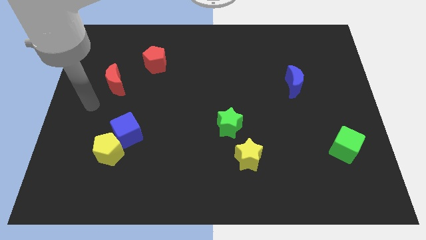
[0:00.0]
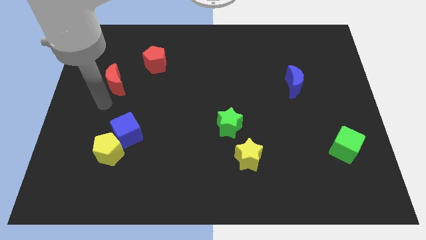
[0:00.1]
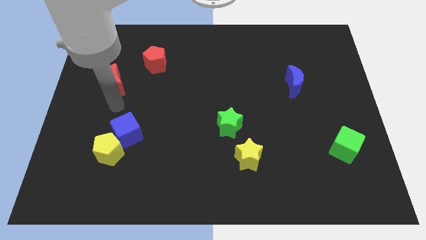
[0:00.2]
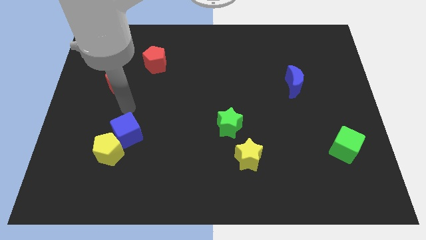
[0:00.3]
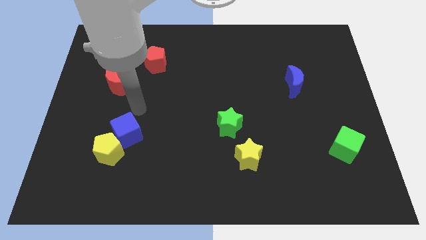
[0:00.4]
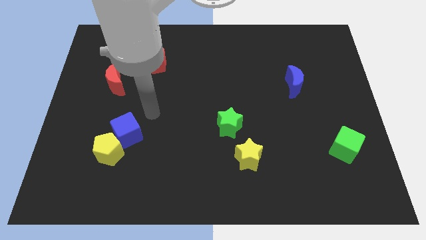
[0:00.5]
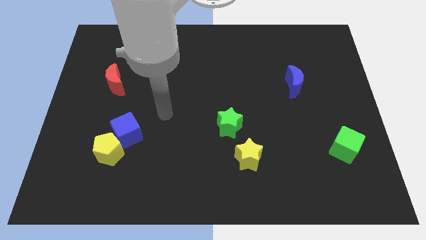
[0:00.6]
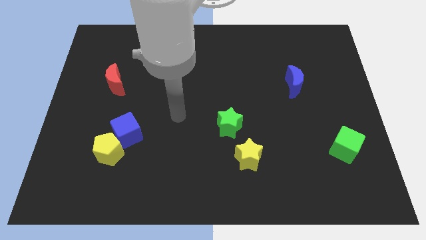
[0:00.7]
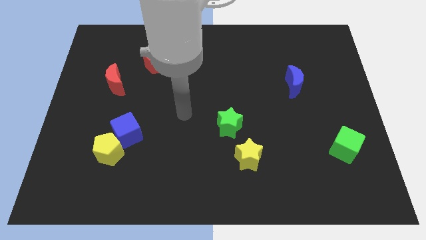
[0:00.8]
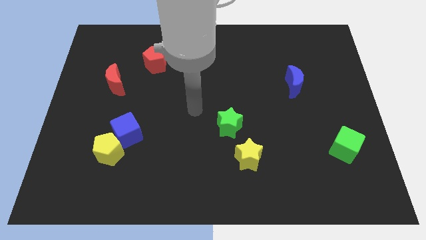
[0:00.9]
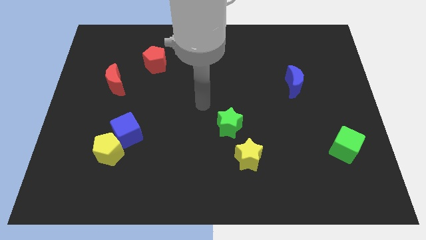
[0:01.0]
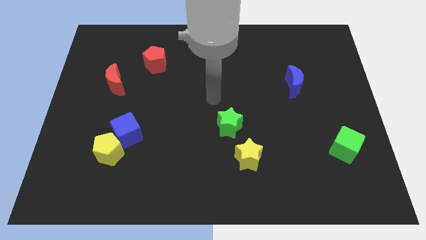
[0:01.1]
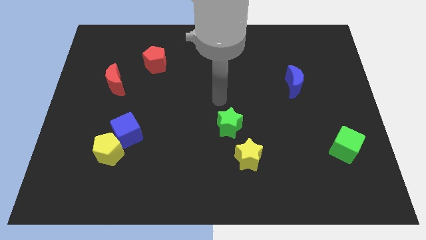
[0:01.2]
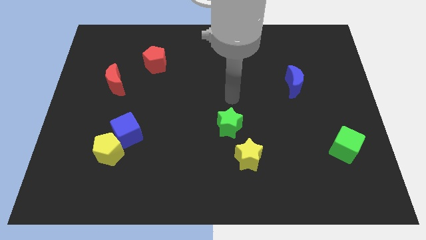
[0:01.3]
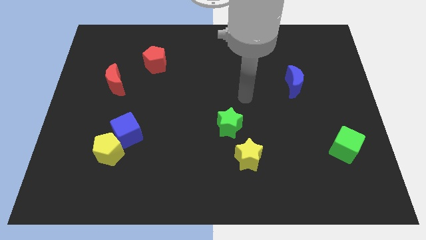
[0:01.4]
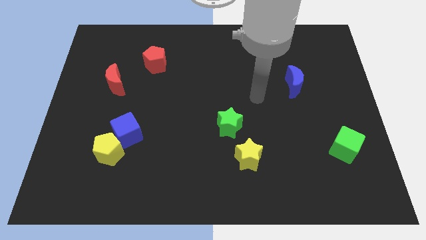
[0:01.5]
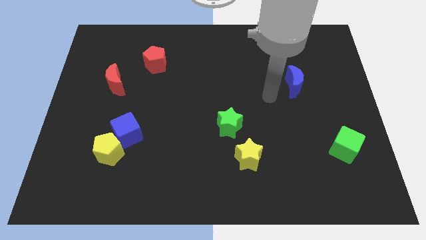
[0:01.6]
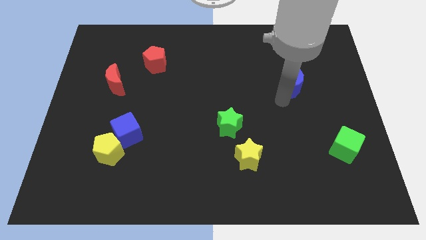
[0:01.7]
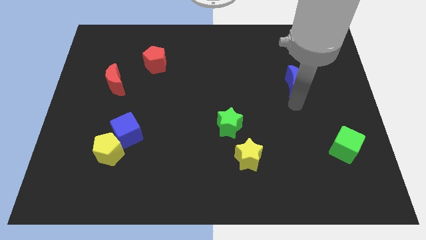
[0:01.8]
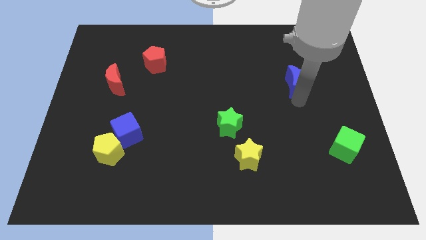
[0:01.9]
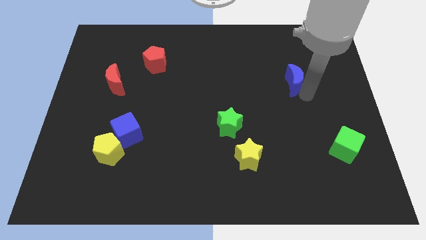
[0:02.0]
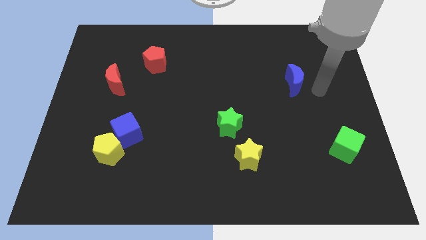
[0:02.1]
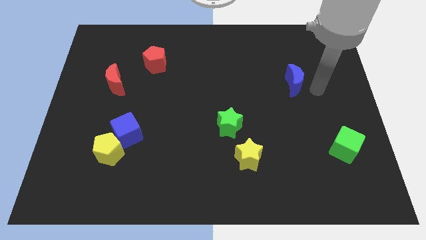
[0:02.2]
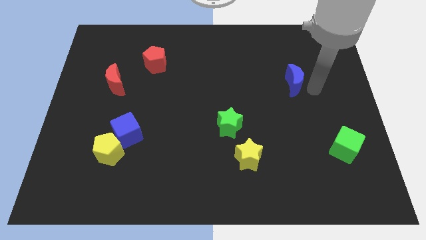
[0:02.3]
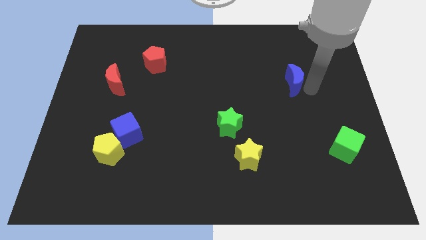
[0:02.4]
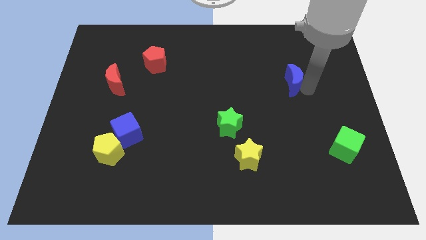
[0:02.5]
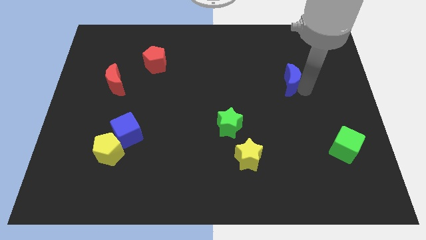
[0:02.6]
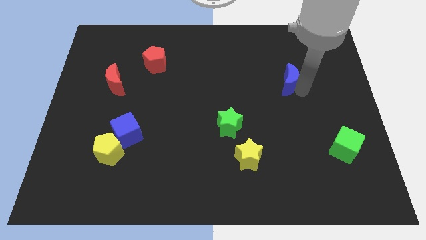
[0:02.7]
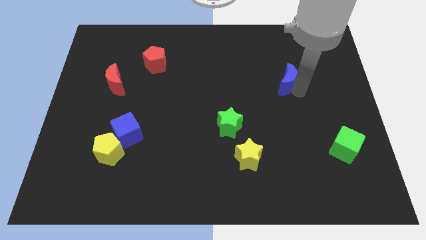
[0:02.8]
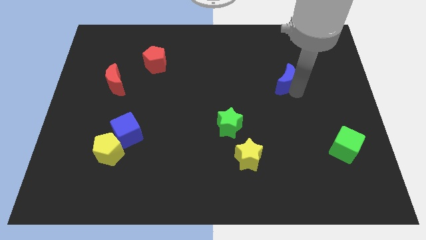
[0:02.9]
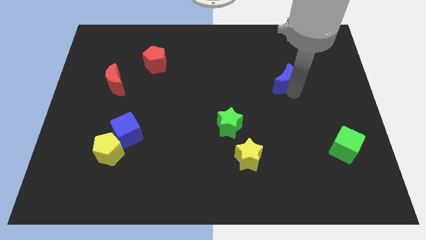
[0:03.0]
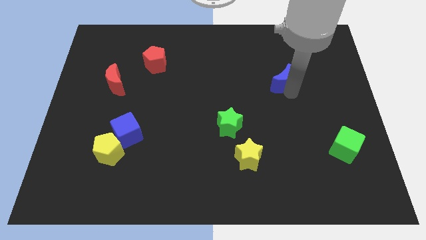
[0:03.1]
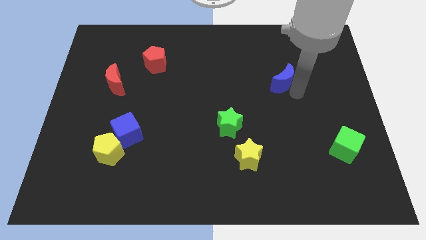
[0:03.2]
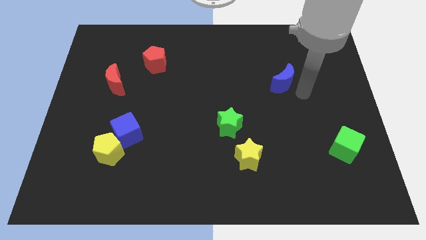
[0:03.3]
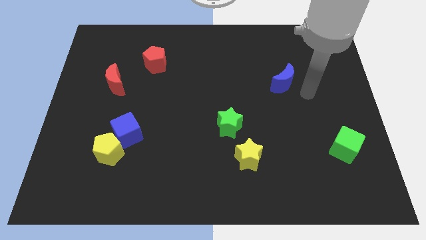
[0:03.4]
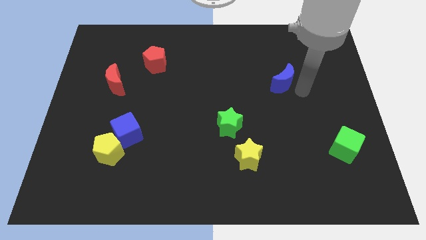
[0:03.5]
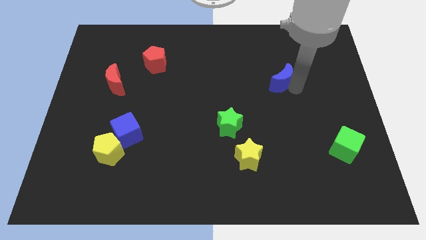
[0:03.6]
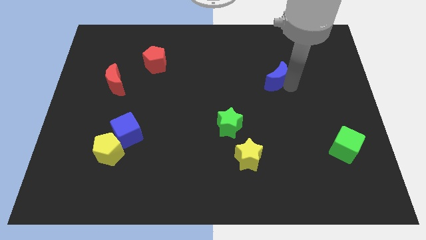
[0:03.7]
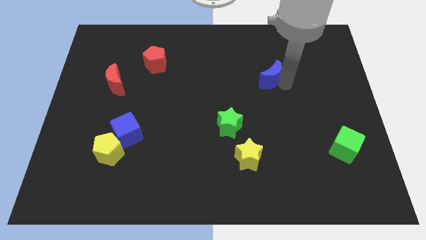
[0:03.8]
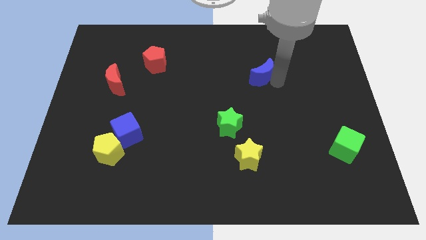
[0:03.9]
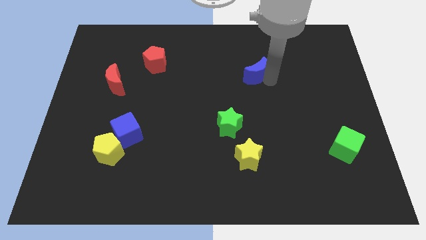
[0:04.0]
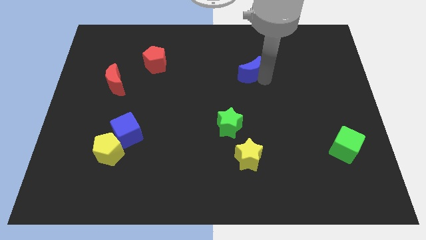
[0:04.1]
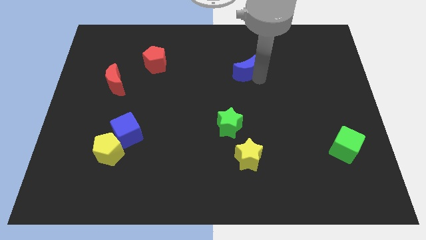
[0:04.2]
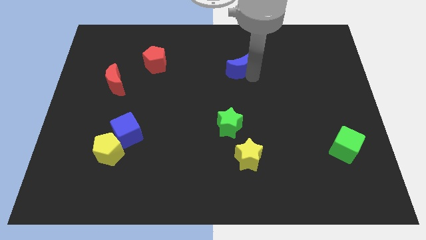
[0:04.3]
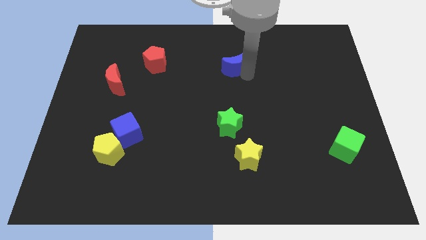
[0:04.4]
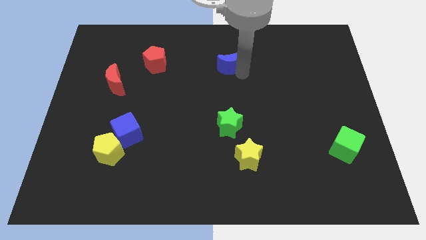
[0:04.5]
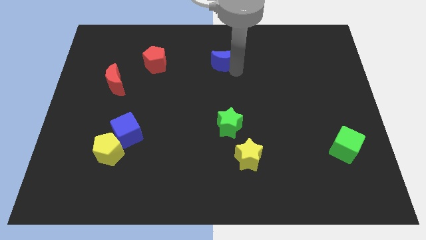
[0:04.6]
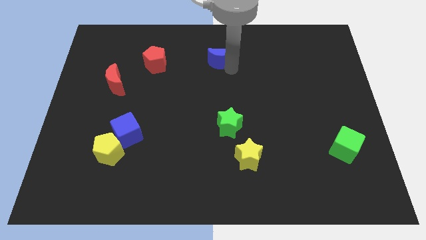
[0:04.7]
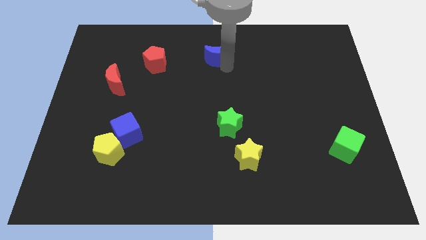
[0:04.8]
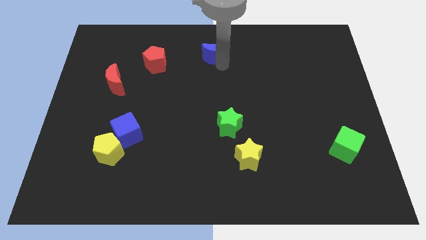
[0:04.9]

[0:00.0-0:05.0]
push the blue moon to the top
